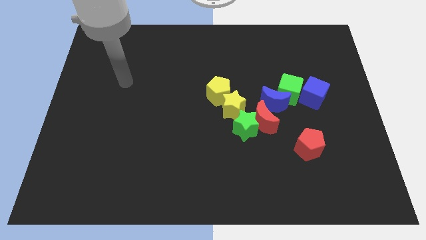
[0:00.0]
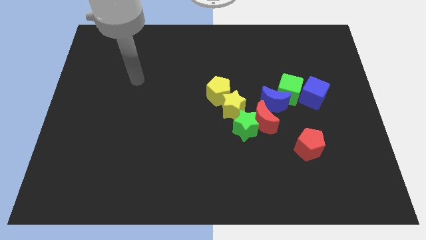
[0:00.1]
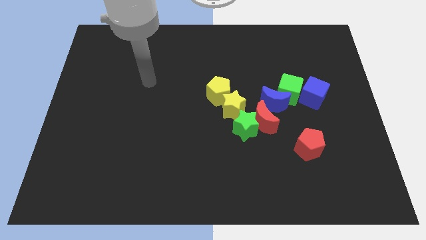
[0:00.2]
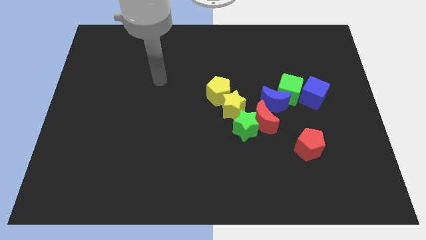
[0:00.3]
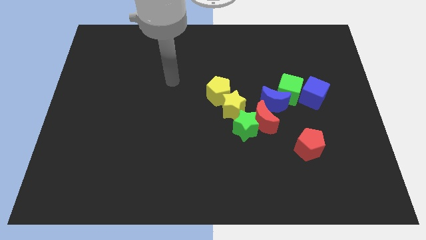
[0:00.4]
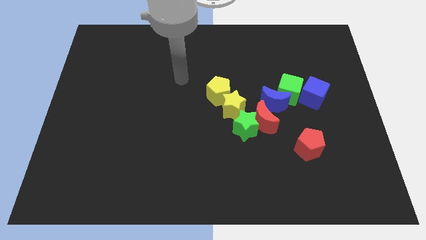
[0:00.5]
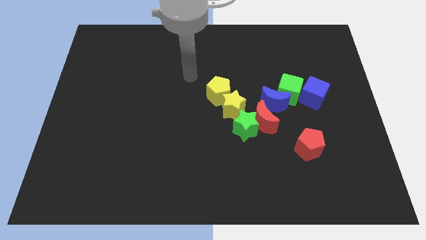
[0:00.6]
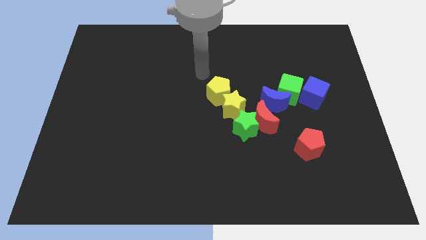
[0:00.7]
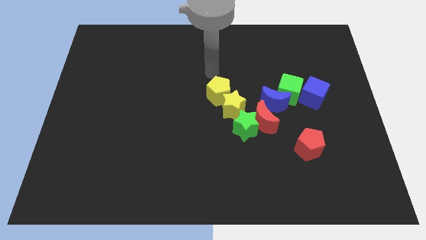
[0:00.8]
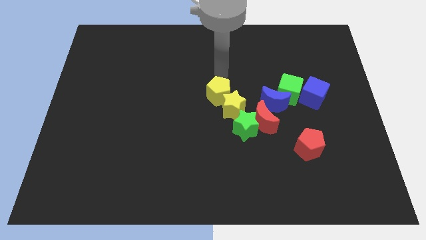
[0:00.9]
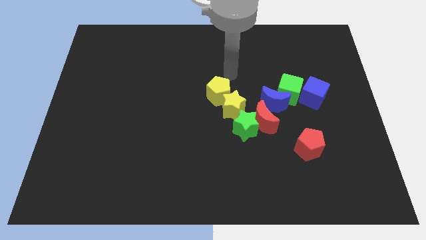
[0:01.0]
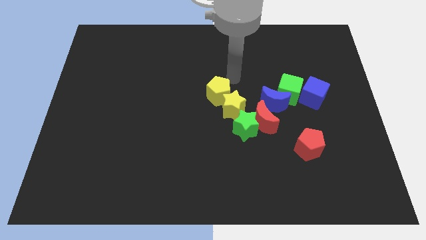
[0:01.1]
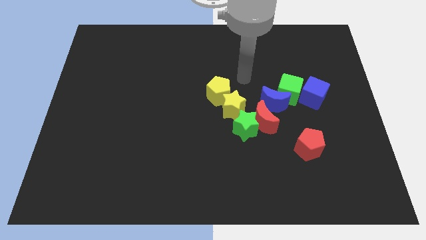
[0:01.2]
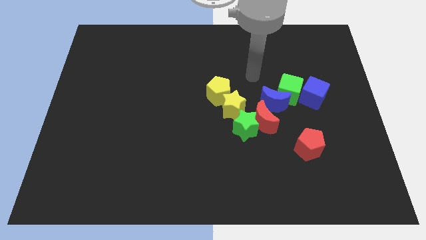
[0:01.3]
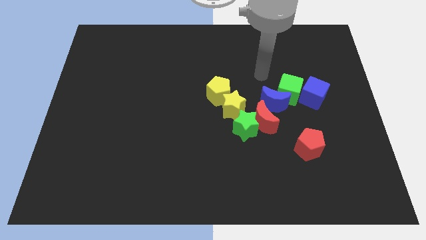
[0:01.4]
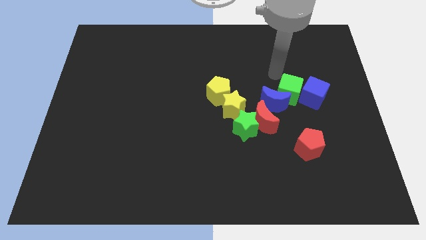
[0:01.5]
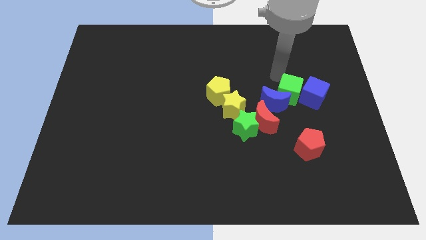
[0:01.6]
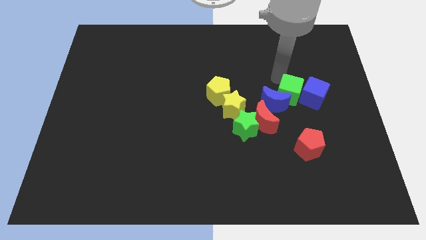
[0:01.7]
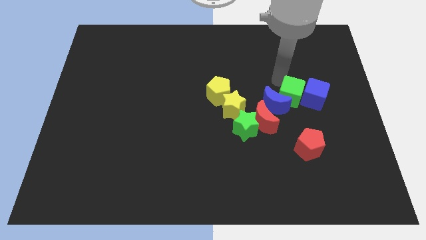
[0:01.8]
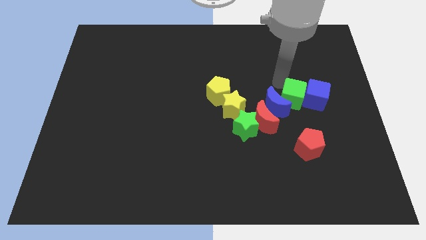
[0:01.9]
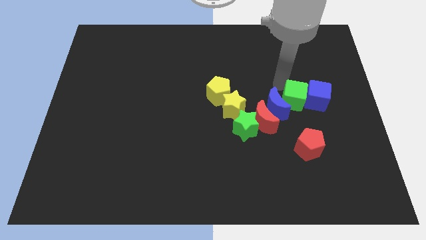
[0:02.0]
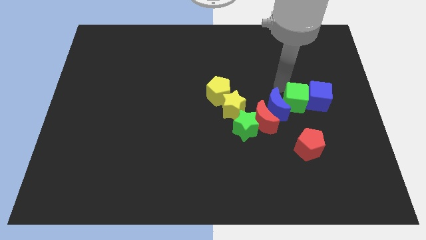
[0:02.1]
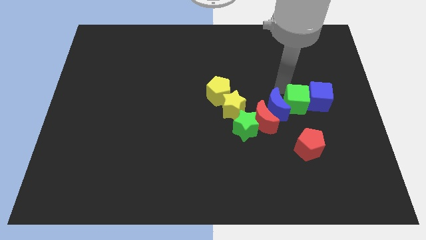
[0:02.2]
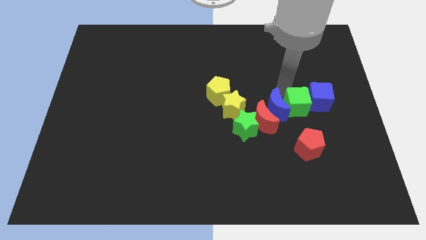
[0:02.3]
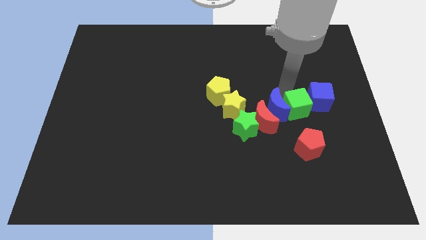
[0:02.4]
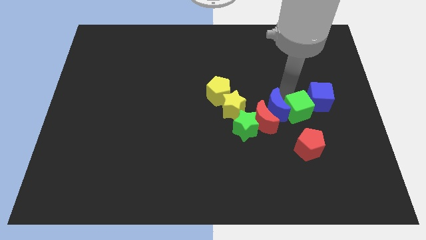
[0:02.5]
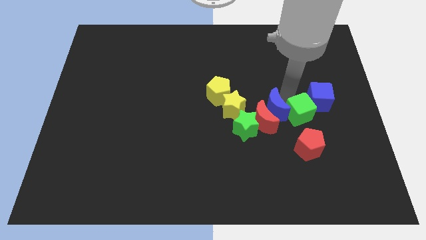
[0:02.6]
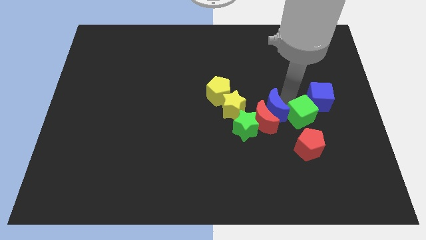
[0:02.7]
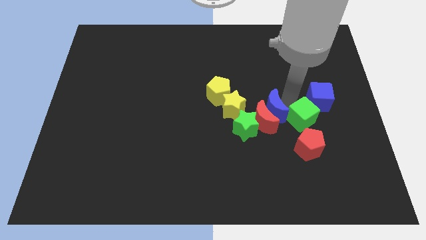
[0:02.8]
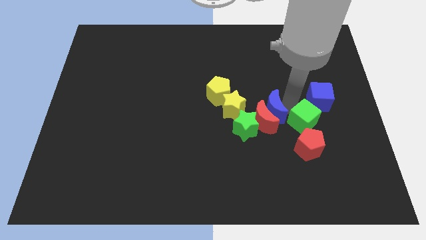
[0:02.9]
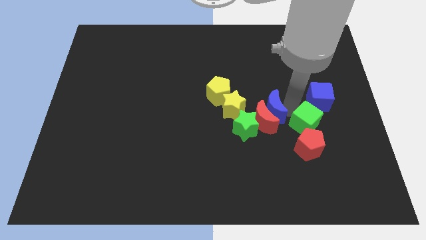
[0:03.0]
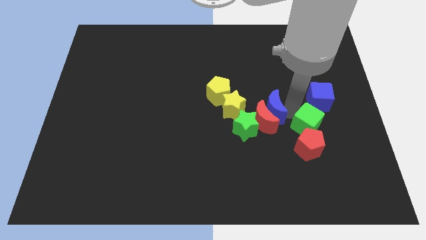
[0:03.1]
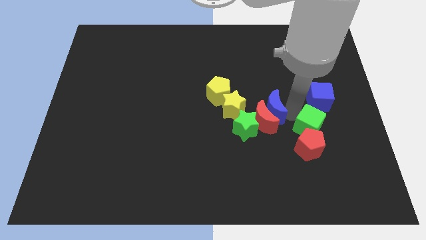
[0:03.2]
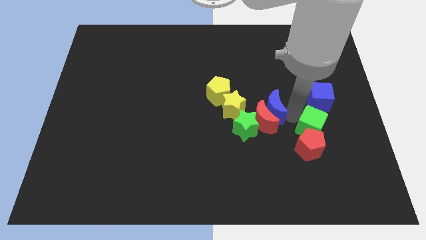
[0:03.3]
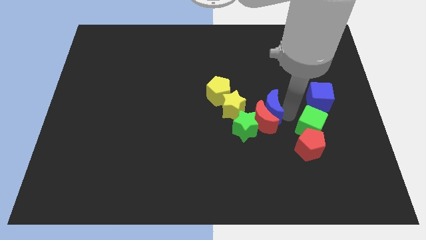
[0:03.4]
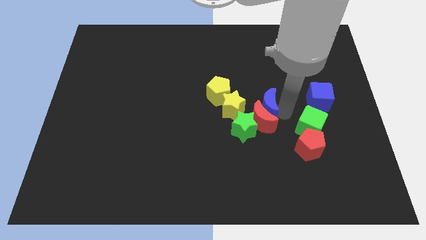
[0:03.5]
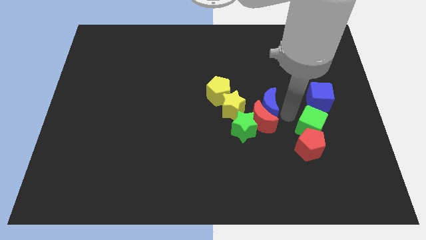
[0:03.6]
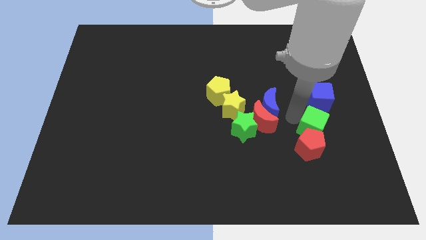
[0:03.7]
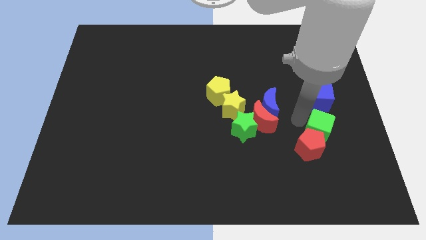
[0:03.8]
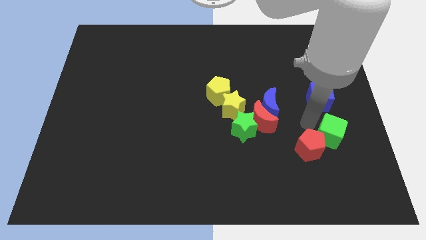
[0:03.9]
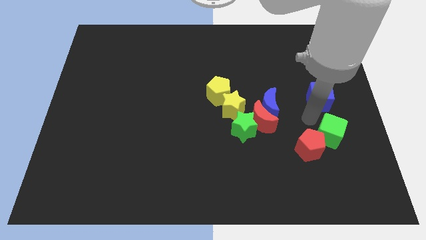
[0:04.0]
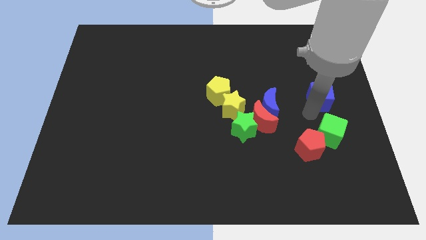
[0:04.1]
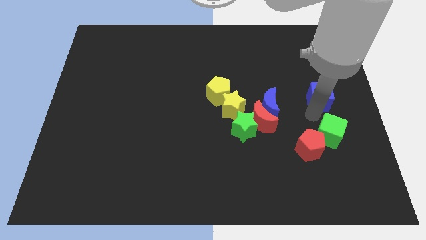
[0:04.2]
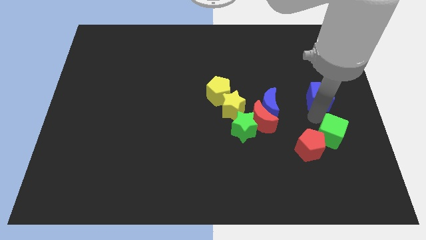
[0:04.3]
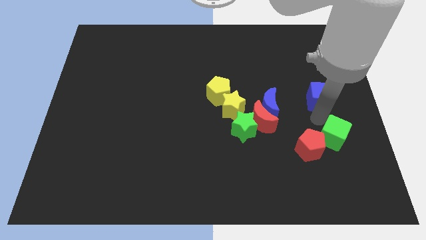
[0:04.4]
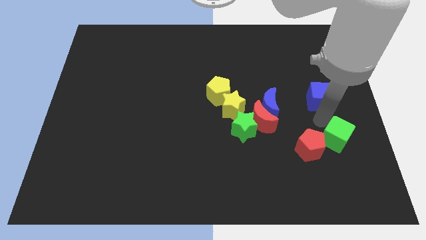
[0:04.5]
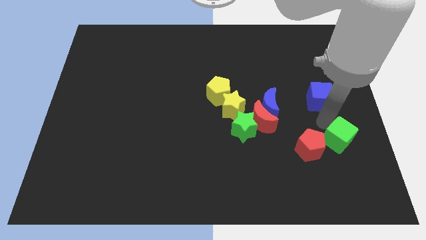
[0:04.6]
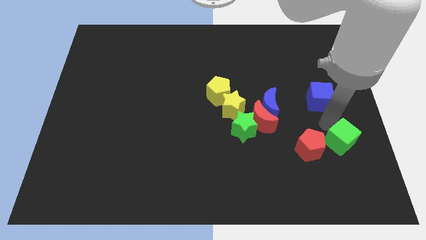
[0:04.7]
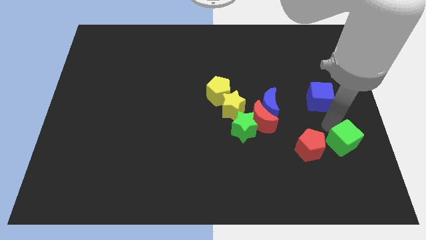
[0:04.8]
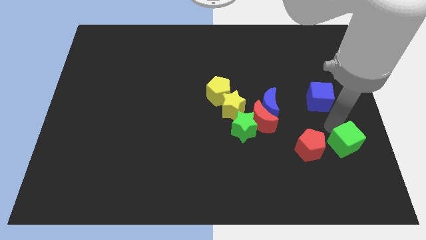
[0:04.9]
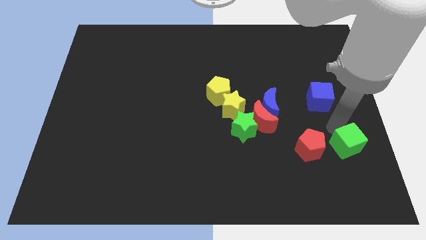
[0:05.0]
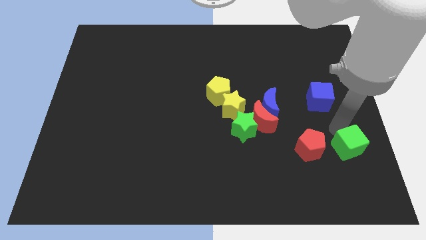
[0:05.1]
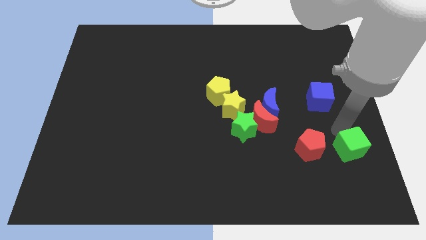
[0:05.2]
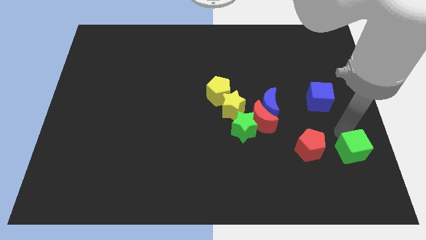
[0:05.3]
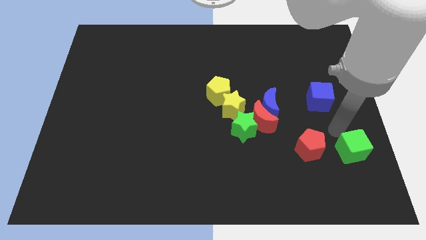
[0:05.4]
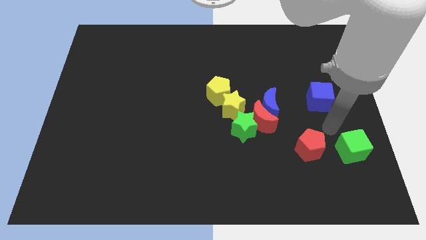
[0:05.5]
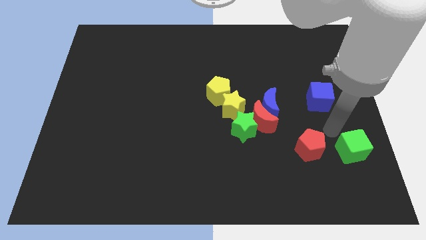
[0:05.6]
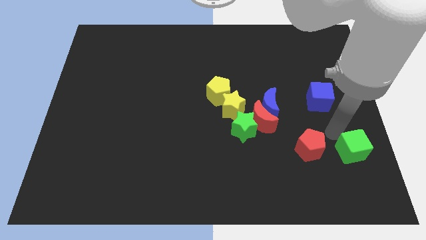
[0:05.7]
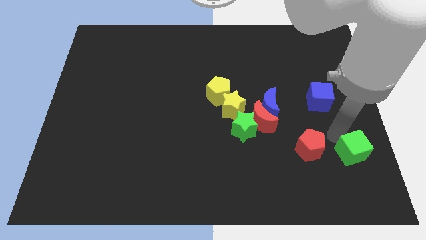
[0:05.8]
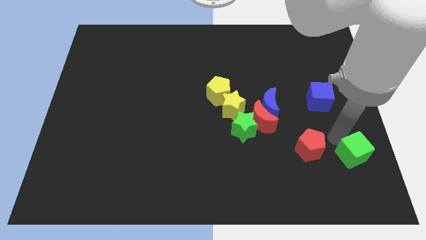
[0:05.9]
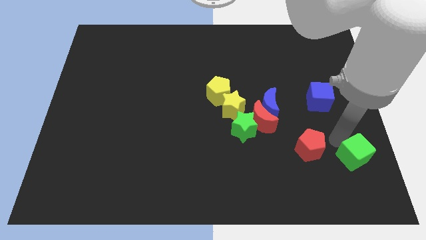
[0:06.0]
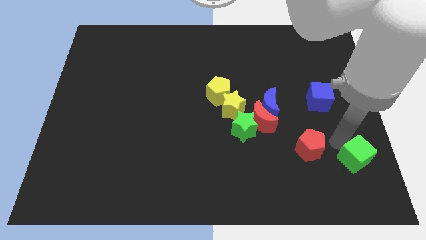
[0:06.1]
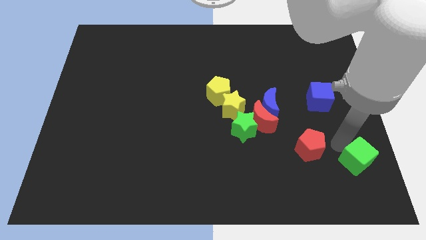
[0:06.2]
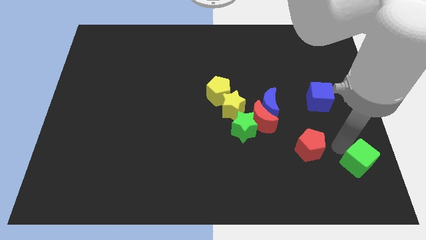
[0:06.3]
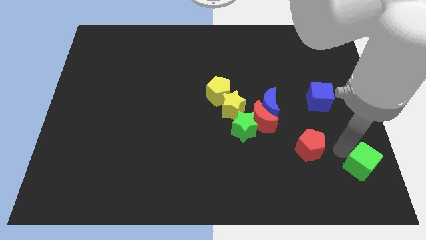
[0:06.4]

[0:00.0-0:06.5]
push the green cube to the bottom right of the board
